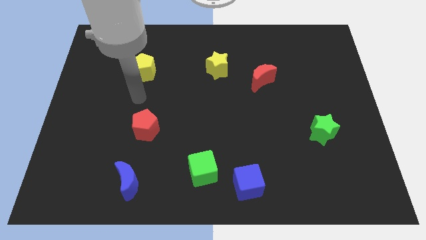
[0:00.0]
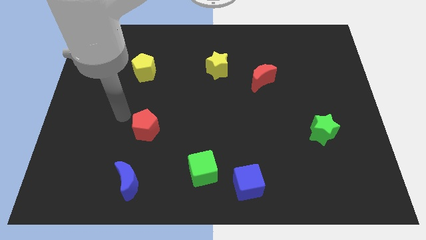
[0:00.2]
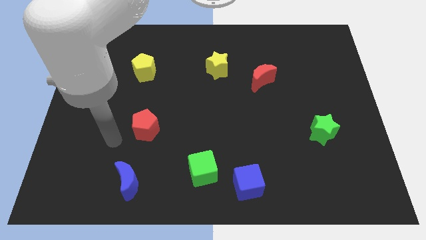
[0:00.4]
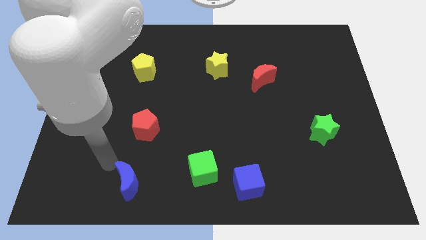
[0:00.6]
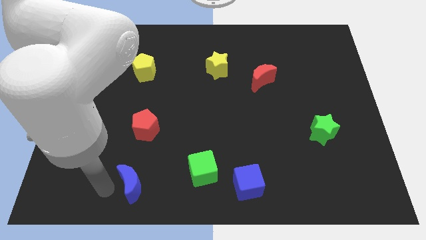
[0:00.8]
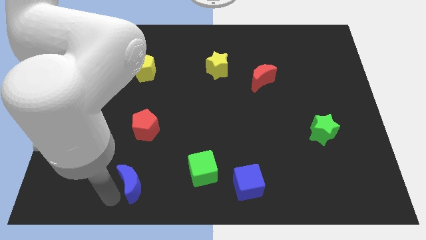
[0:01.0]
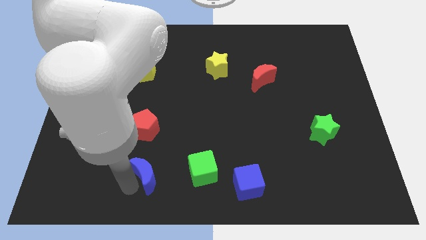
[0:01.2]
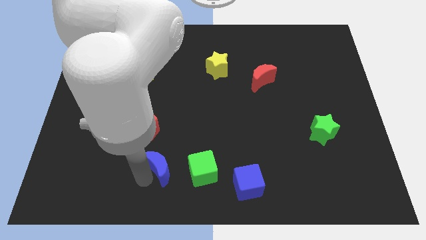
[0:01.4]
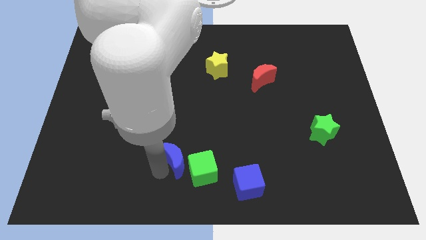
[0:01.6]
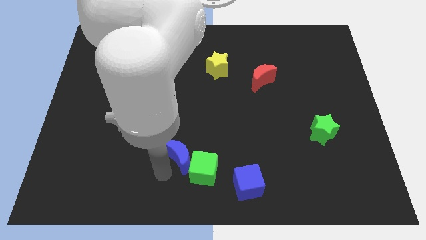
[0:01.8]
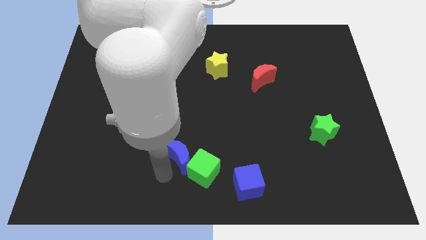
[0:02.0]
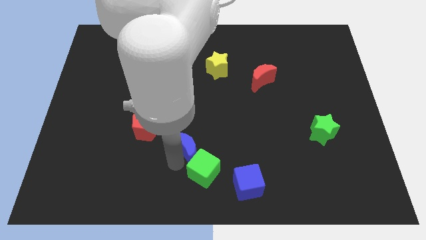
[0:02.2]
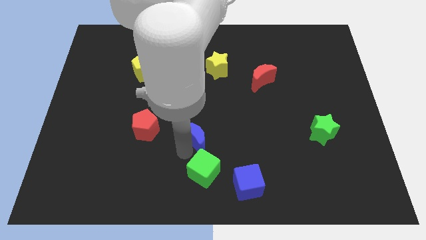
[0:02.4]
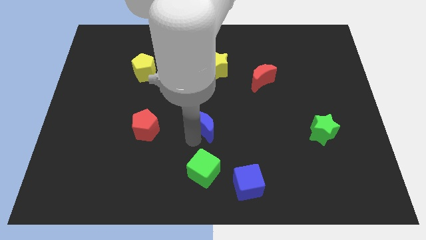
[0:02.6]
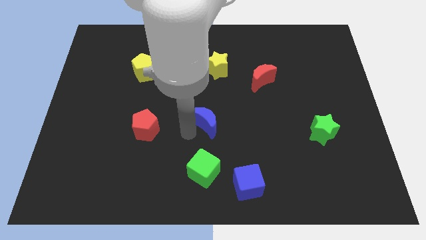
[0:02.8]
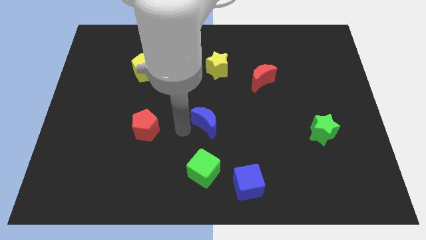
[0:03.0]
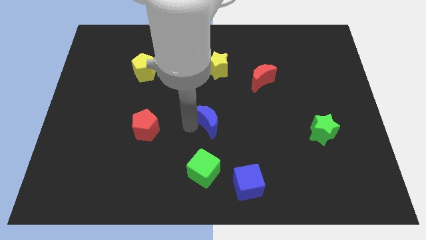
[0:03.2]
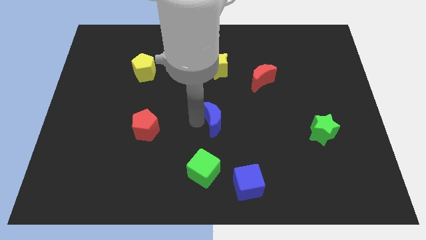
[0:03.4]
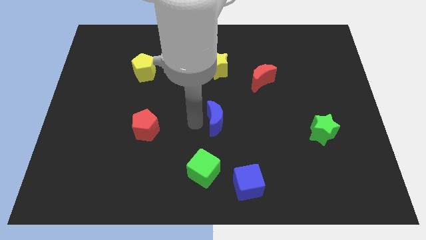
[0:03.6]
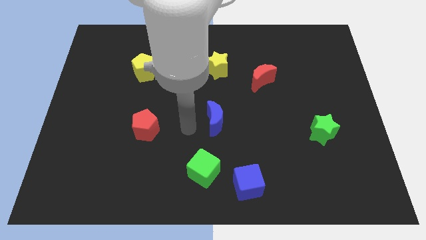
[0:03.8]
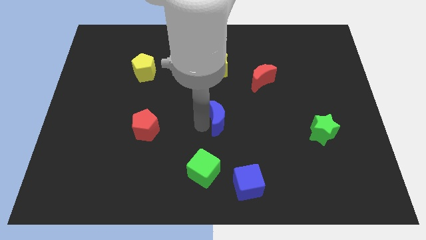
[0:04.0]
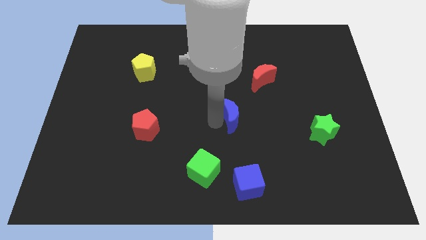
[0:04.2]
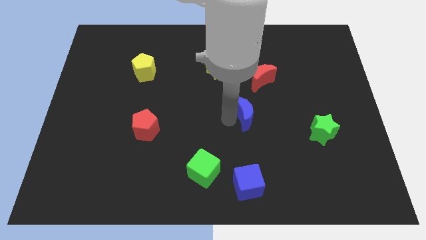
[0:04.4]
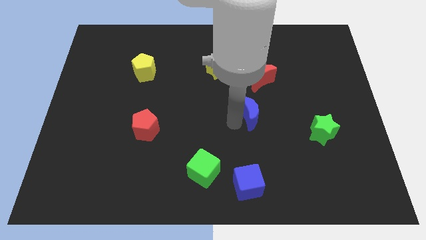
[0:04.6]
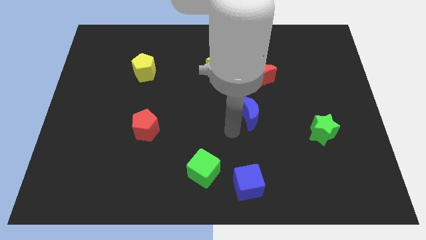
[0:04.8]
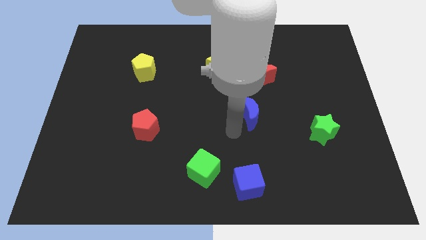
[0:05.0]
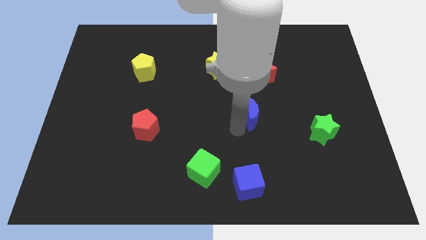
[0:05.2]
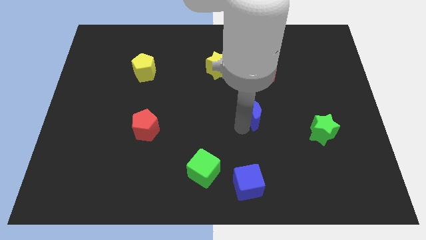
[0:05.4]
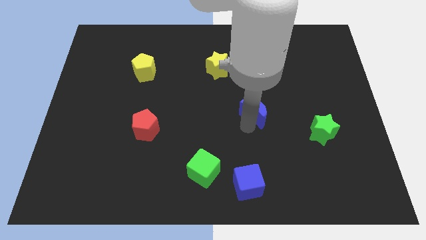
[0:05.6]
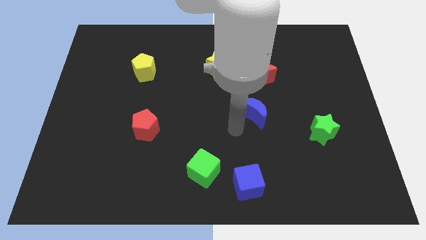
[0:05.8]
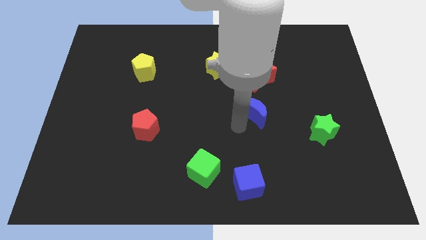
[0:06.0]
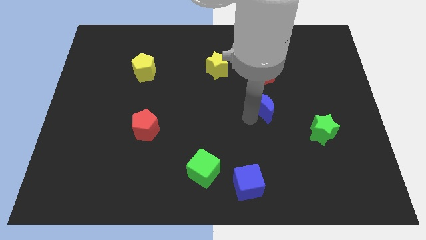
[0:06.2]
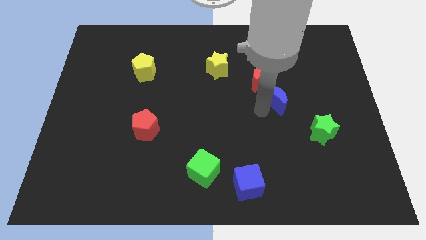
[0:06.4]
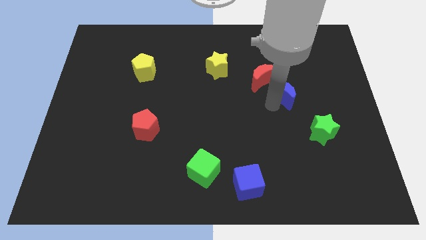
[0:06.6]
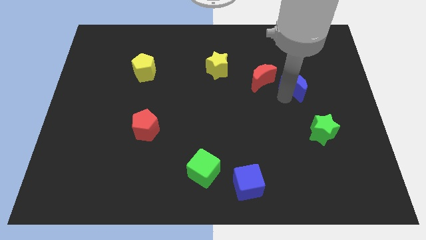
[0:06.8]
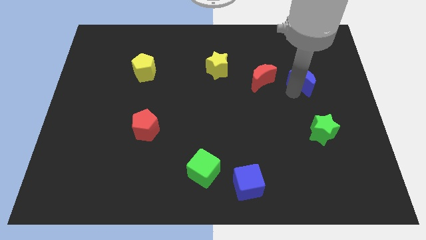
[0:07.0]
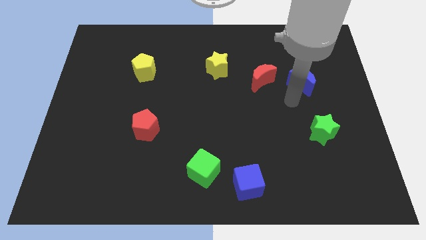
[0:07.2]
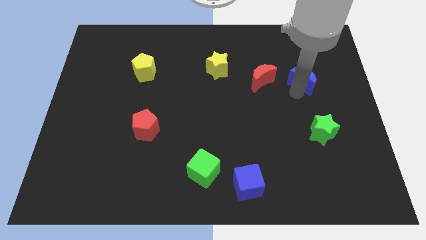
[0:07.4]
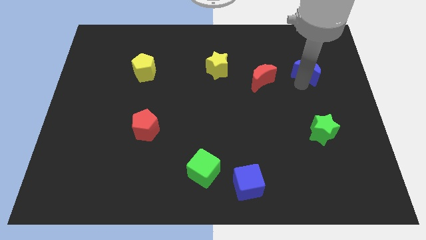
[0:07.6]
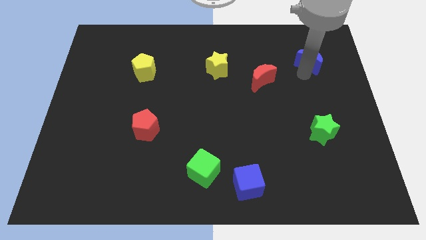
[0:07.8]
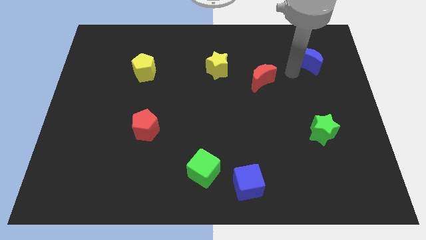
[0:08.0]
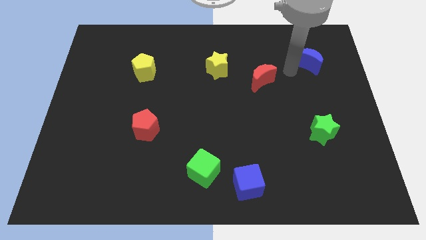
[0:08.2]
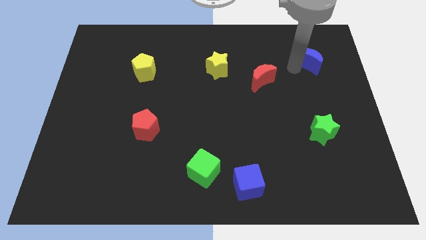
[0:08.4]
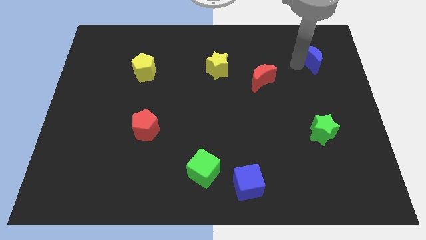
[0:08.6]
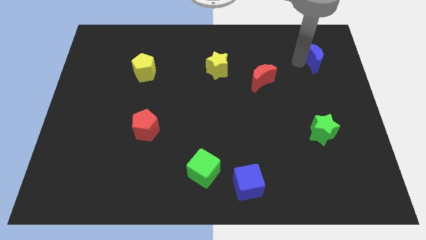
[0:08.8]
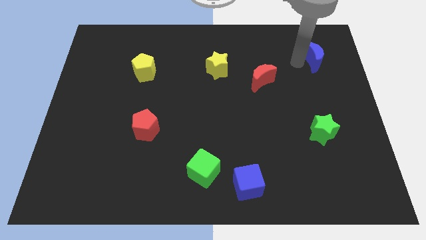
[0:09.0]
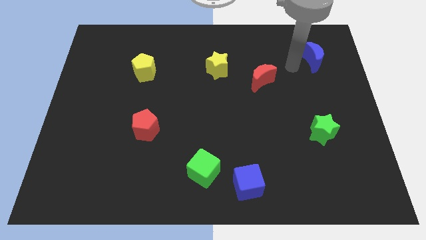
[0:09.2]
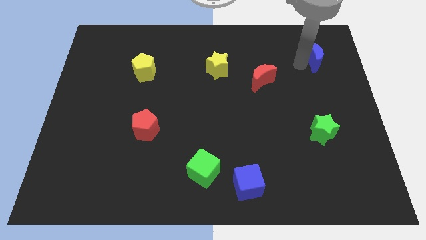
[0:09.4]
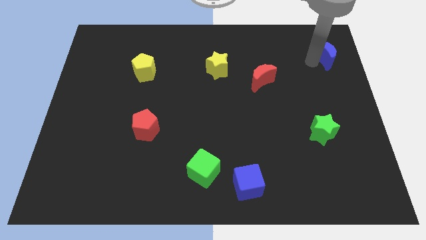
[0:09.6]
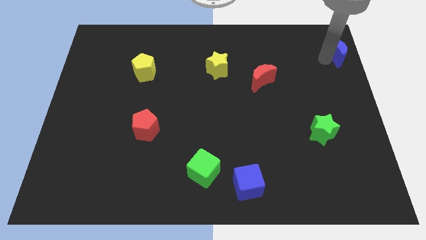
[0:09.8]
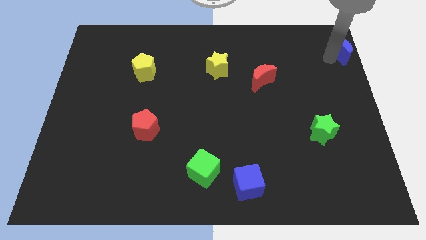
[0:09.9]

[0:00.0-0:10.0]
put the blue moon to the top right

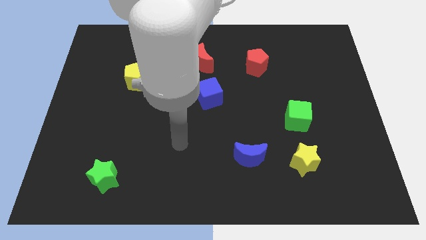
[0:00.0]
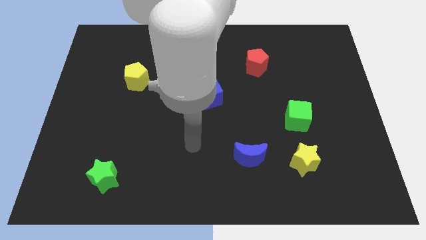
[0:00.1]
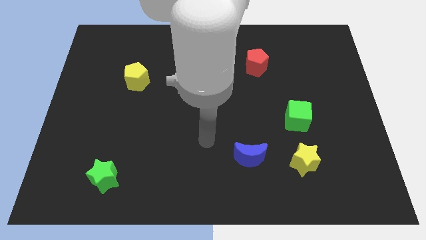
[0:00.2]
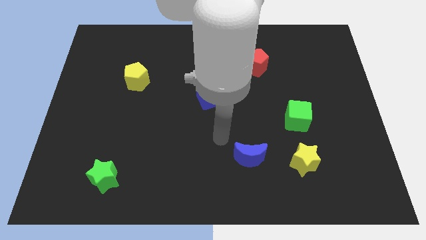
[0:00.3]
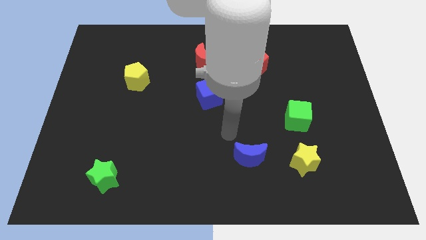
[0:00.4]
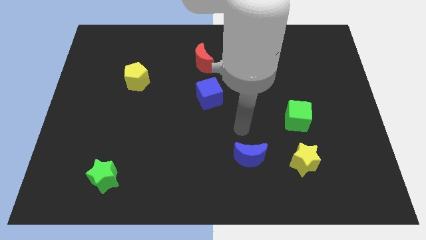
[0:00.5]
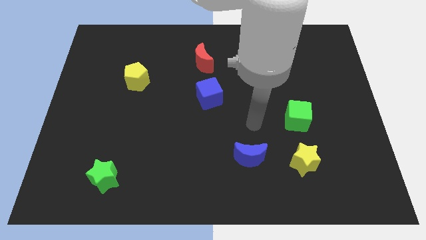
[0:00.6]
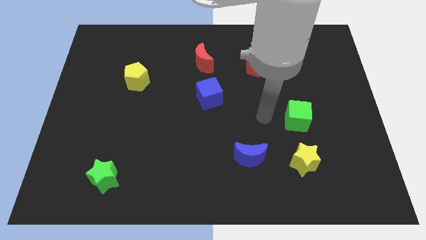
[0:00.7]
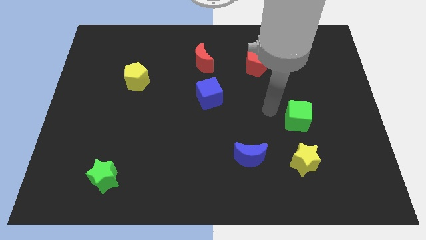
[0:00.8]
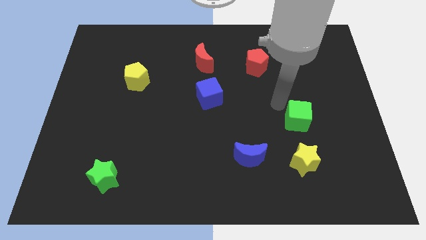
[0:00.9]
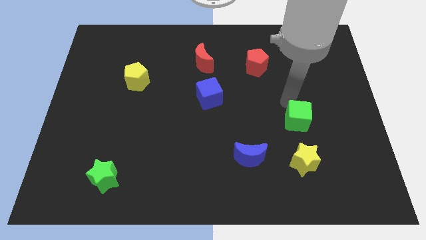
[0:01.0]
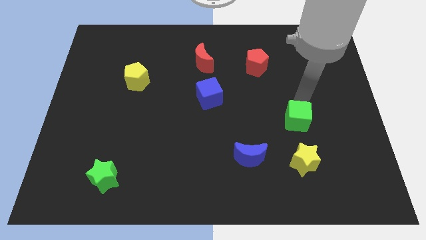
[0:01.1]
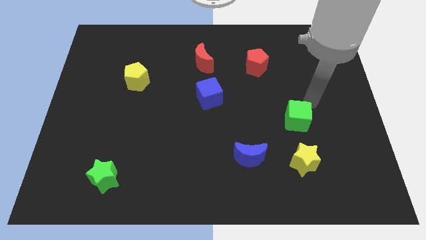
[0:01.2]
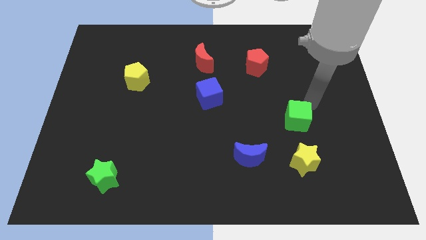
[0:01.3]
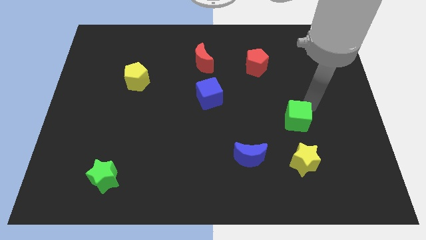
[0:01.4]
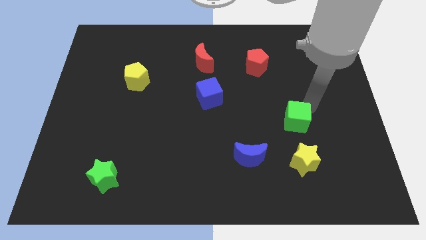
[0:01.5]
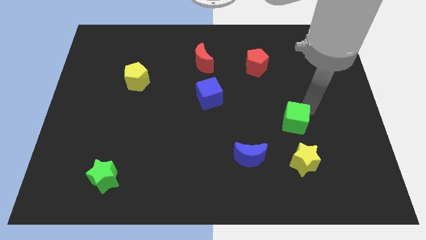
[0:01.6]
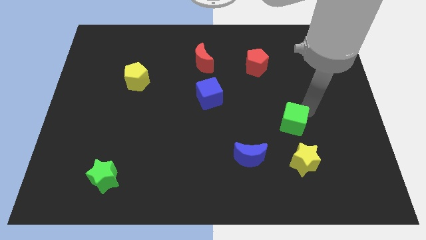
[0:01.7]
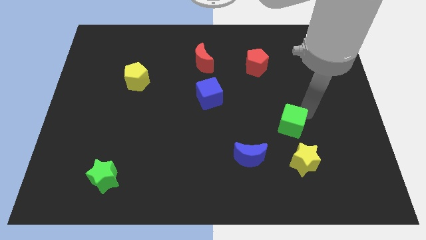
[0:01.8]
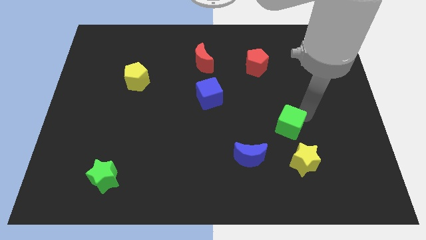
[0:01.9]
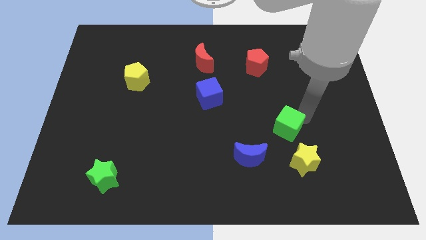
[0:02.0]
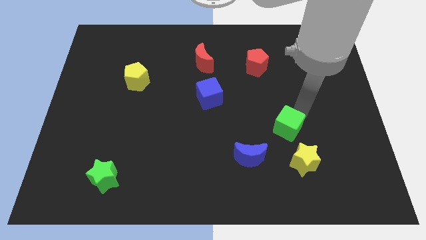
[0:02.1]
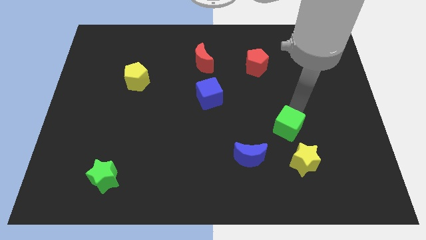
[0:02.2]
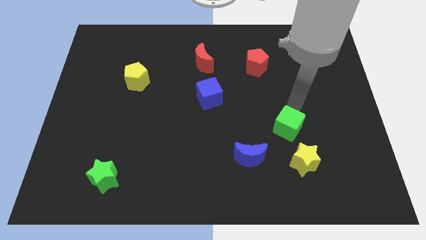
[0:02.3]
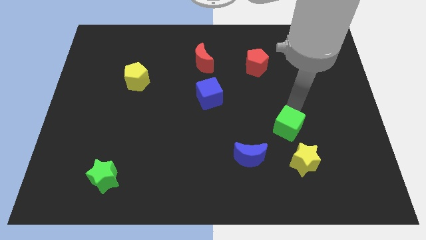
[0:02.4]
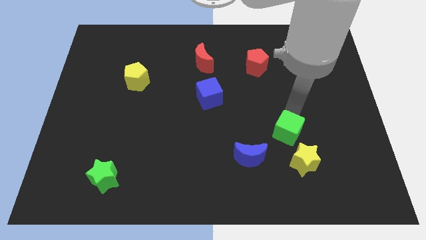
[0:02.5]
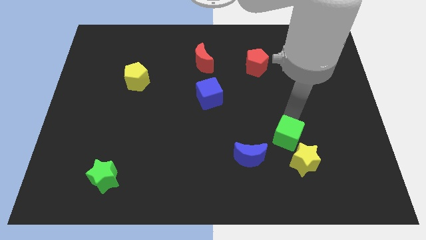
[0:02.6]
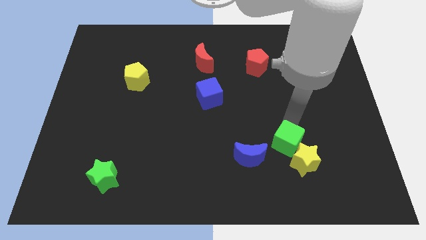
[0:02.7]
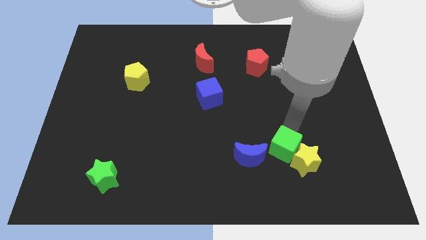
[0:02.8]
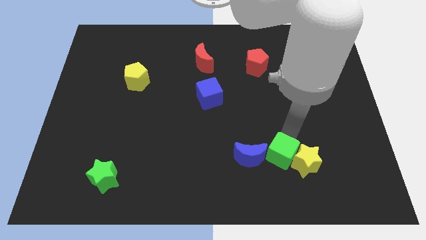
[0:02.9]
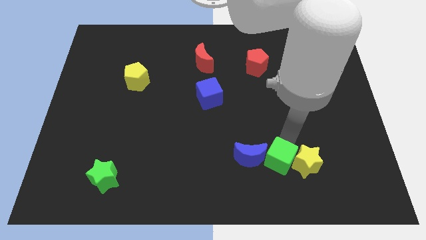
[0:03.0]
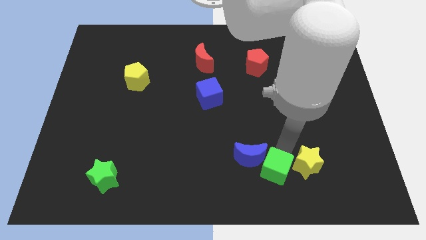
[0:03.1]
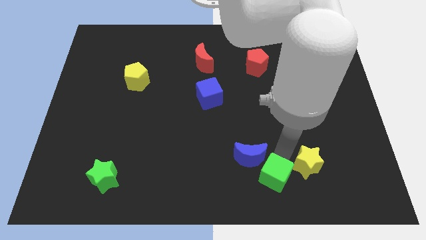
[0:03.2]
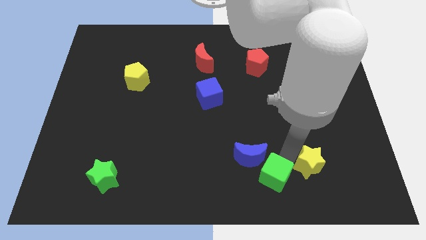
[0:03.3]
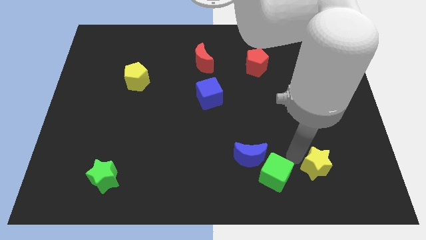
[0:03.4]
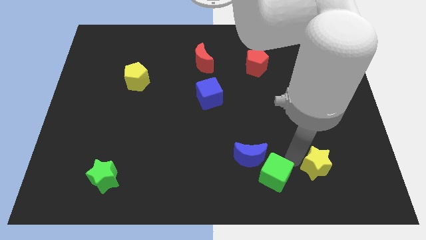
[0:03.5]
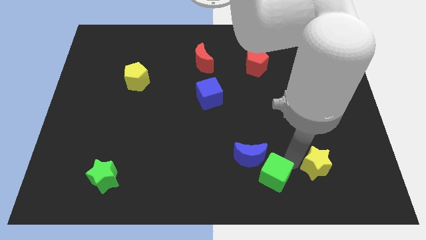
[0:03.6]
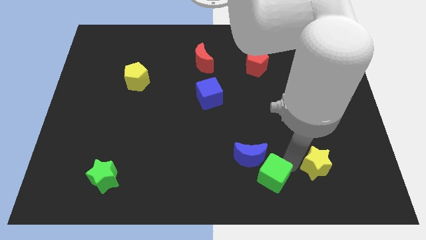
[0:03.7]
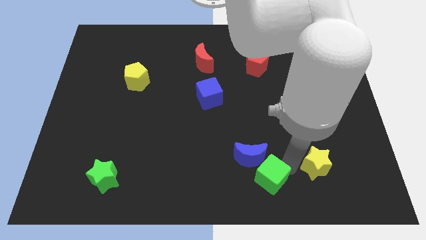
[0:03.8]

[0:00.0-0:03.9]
slide the green cube to the bottom side
